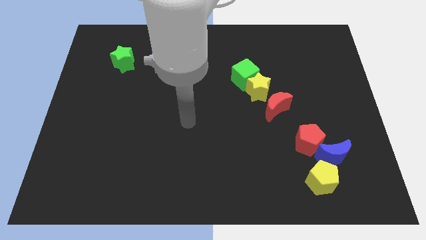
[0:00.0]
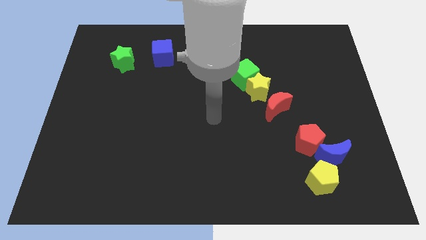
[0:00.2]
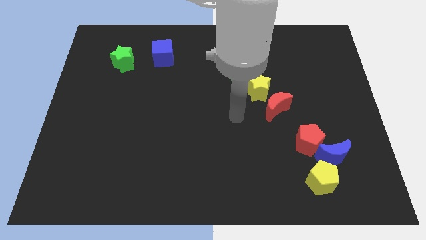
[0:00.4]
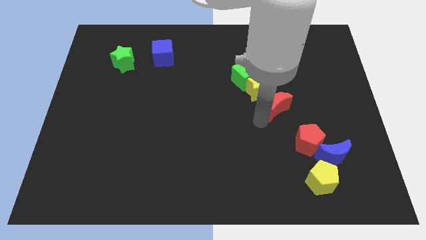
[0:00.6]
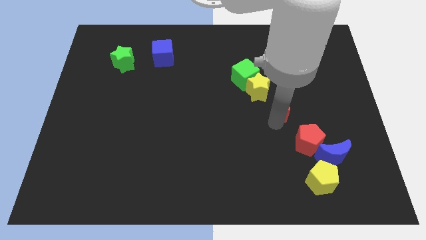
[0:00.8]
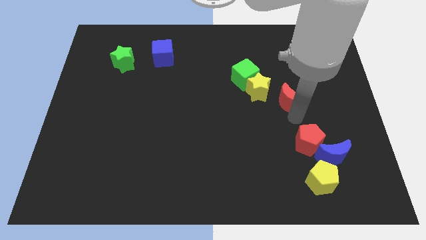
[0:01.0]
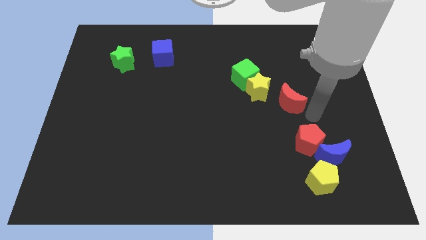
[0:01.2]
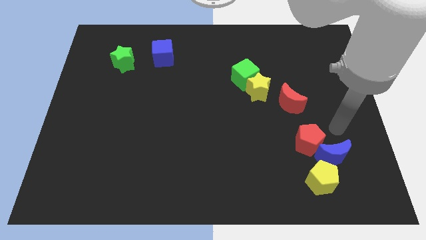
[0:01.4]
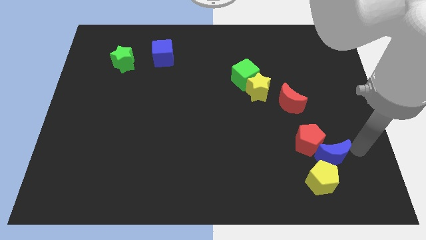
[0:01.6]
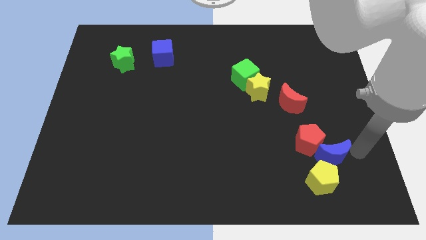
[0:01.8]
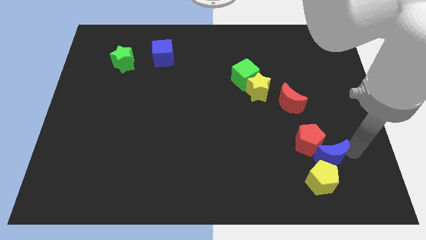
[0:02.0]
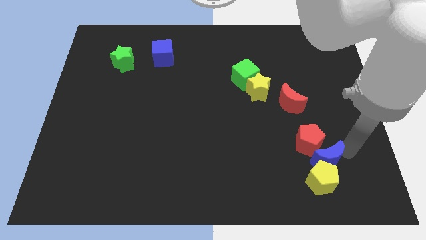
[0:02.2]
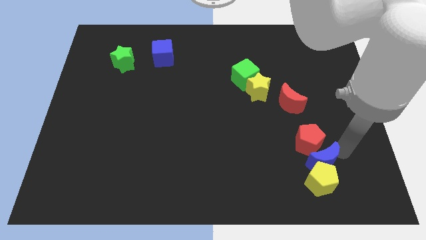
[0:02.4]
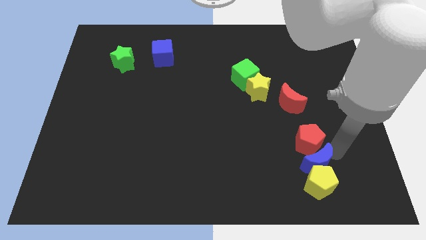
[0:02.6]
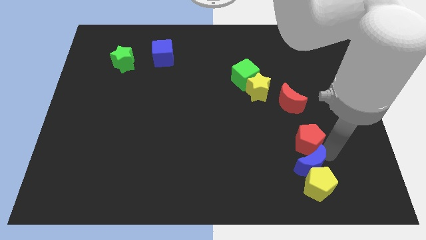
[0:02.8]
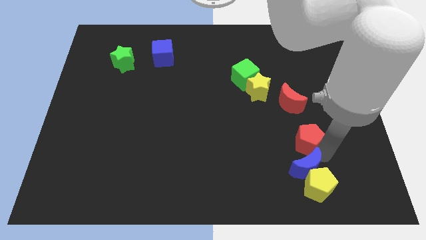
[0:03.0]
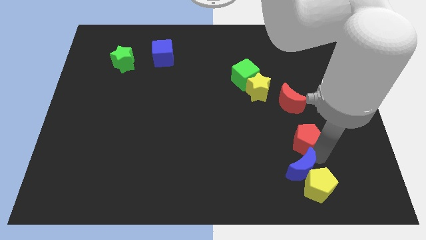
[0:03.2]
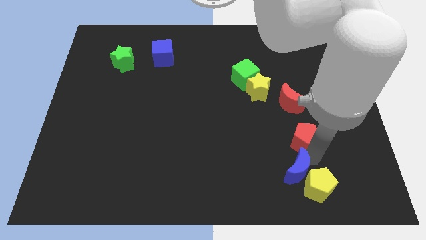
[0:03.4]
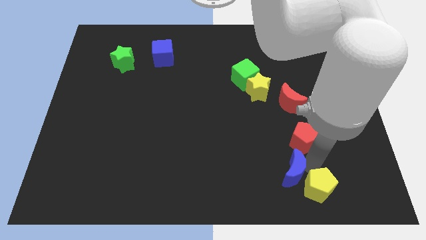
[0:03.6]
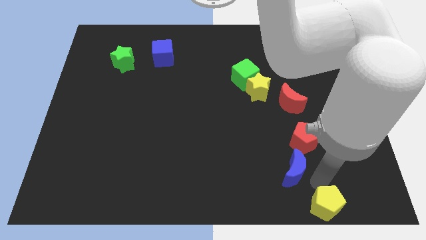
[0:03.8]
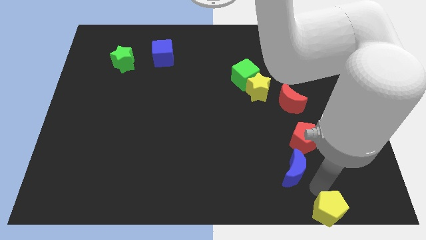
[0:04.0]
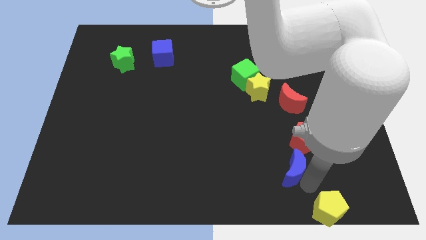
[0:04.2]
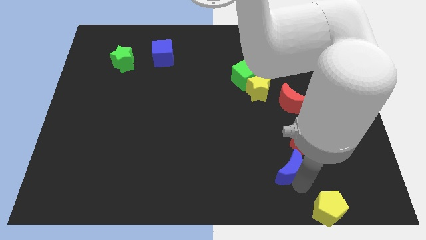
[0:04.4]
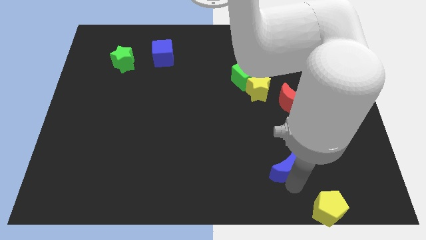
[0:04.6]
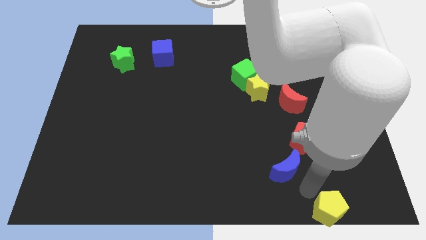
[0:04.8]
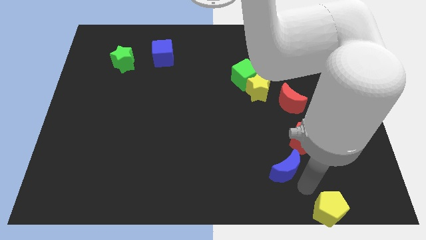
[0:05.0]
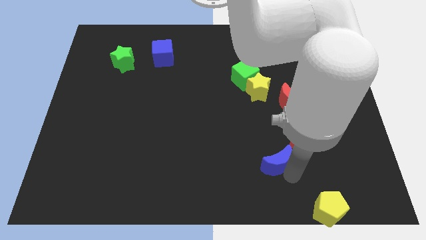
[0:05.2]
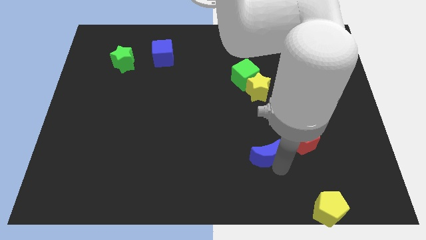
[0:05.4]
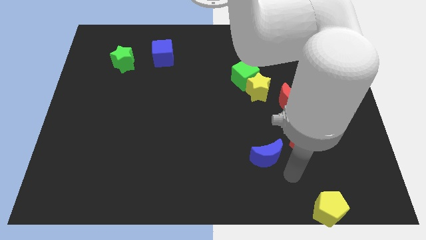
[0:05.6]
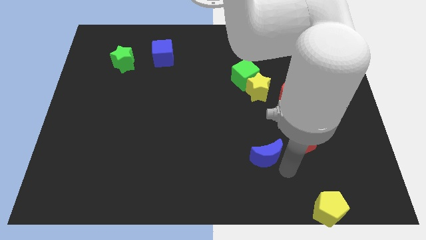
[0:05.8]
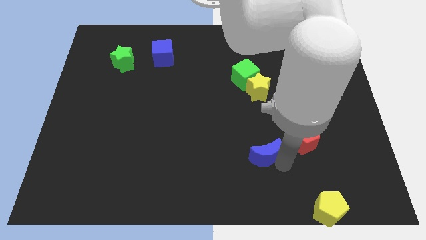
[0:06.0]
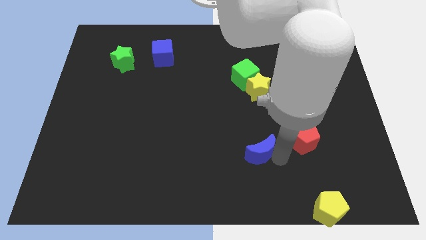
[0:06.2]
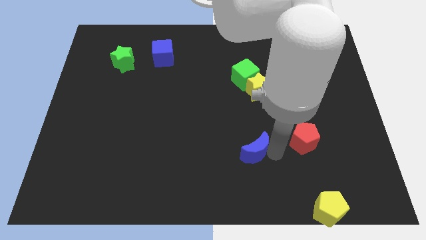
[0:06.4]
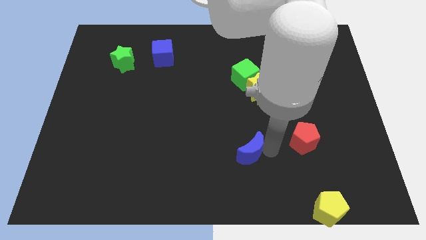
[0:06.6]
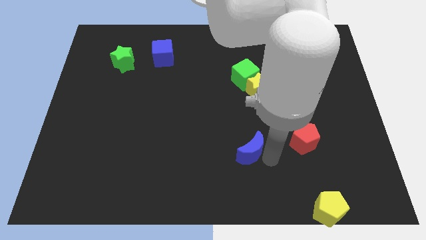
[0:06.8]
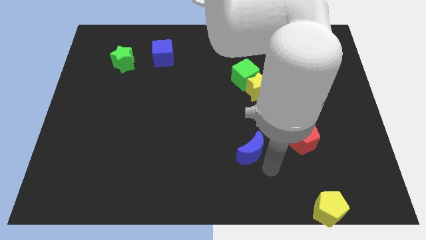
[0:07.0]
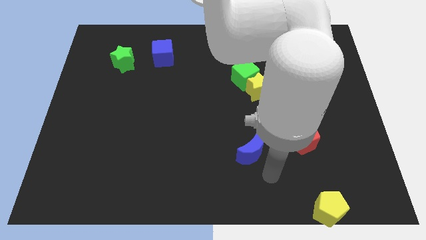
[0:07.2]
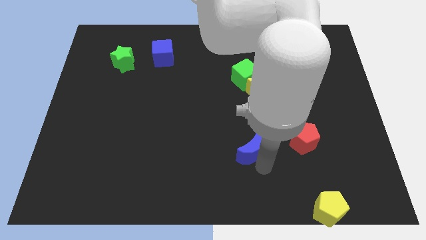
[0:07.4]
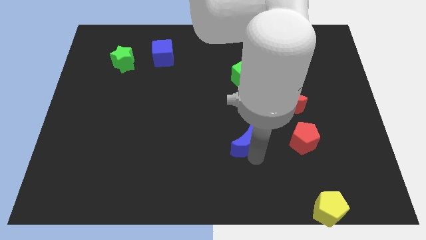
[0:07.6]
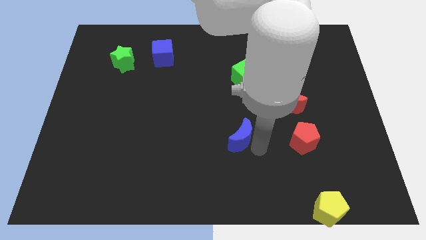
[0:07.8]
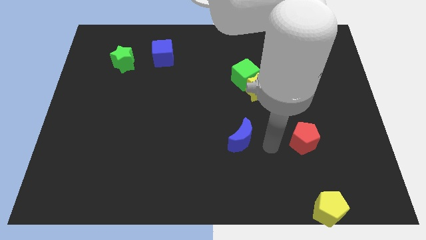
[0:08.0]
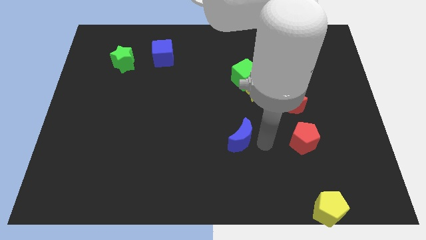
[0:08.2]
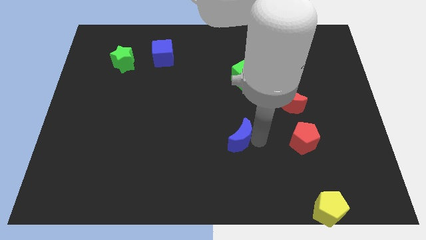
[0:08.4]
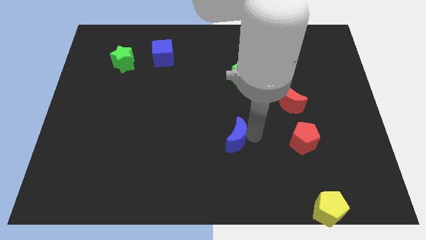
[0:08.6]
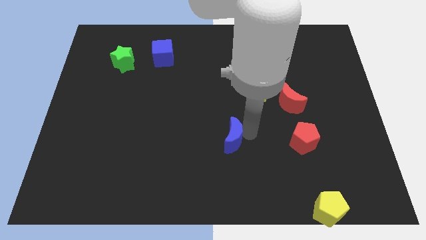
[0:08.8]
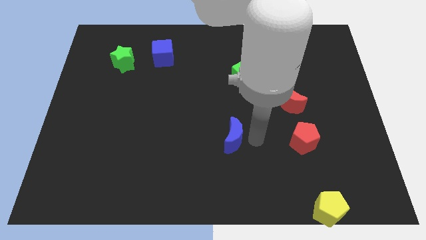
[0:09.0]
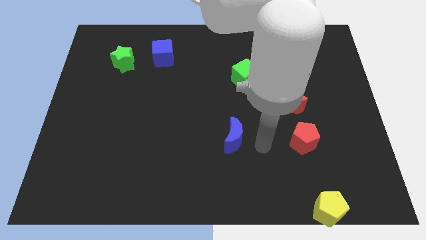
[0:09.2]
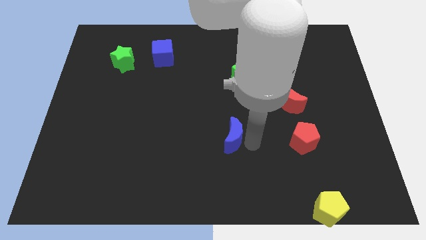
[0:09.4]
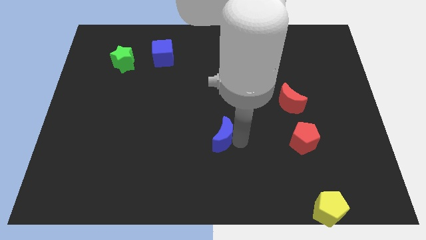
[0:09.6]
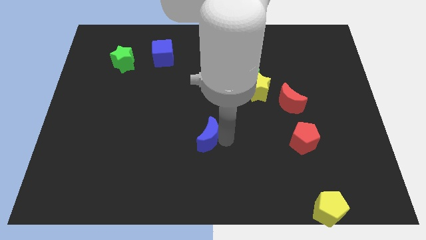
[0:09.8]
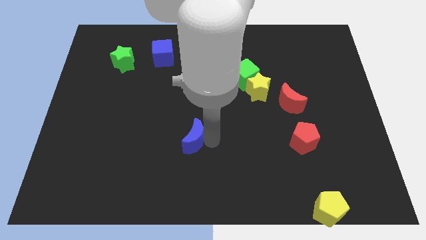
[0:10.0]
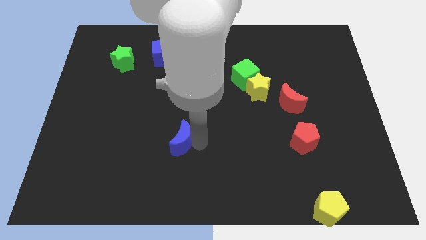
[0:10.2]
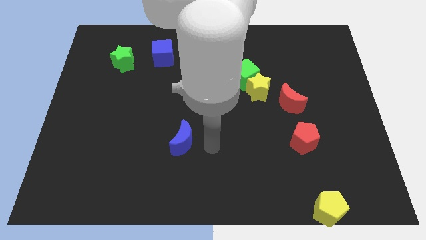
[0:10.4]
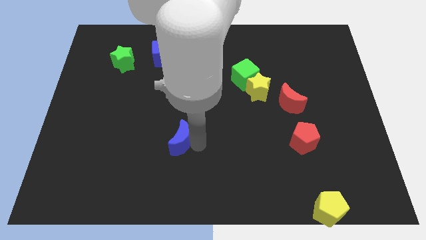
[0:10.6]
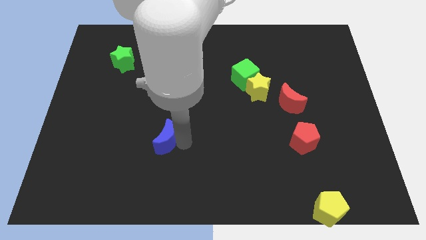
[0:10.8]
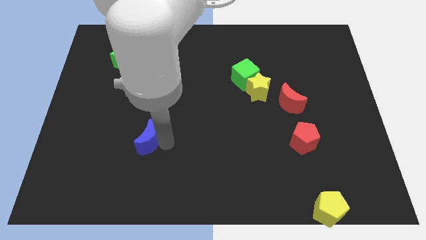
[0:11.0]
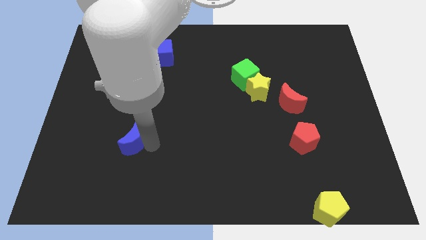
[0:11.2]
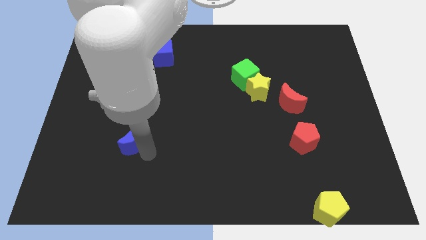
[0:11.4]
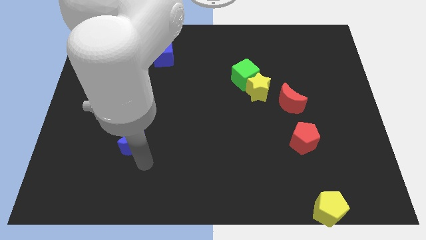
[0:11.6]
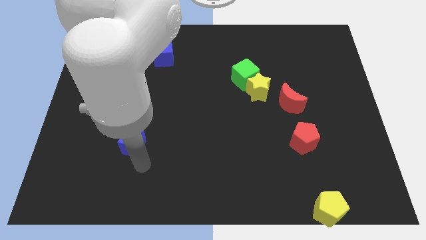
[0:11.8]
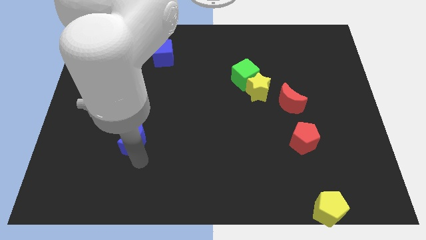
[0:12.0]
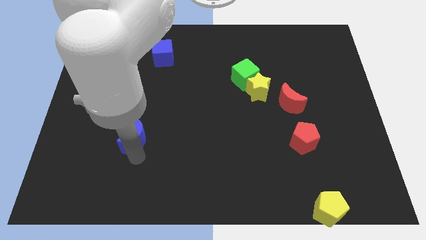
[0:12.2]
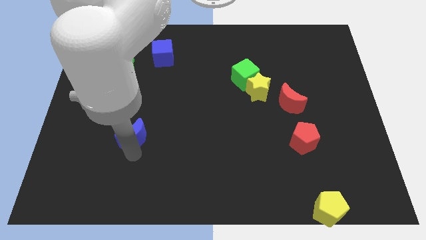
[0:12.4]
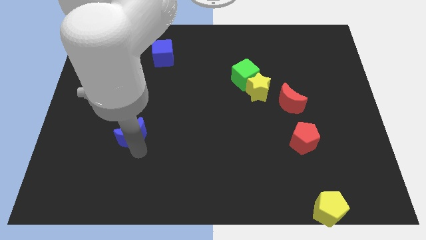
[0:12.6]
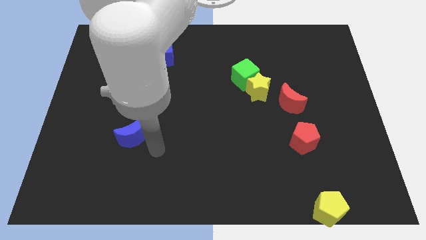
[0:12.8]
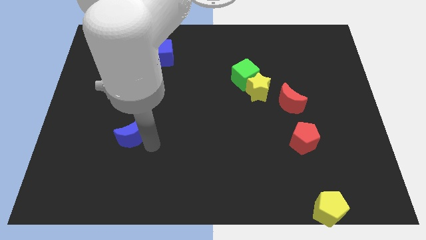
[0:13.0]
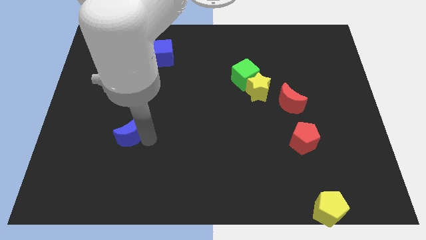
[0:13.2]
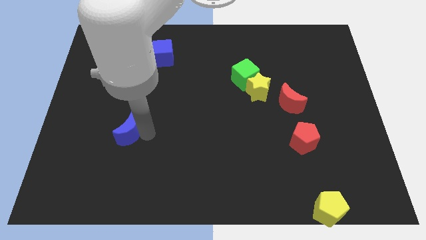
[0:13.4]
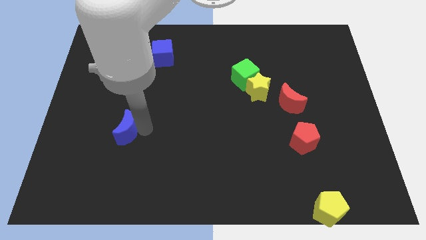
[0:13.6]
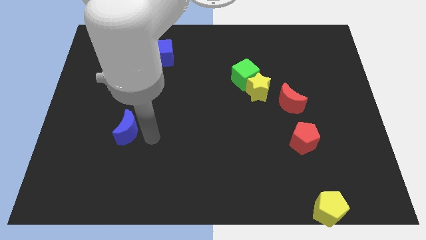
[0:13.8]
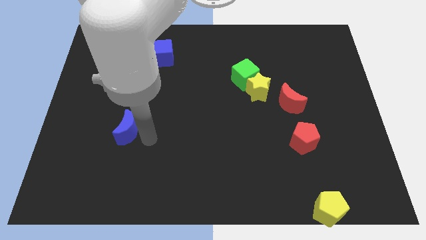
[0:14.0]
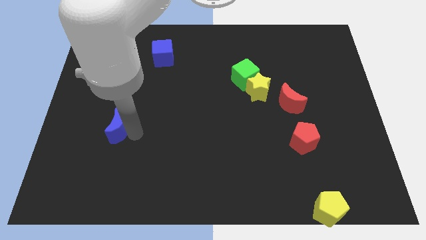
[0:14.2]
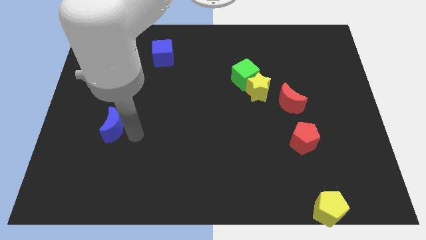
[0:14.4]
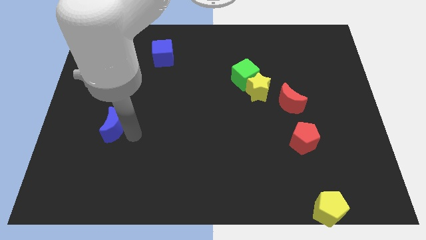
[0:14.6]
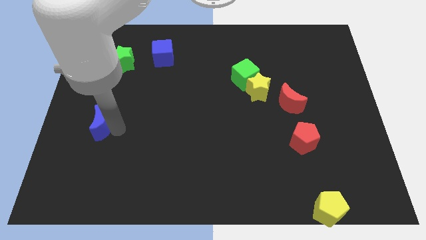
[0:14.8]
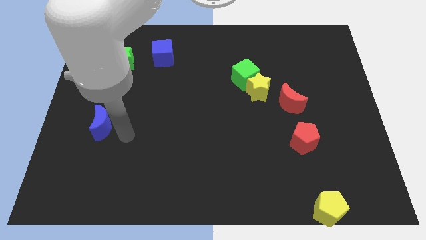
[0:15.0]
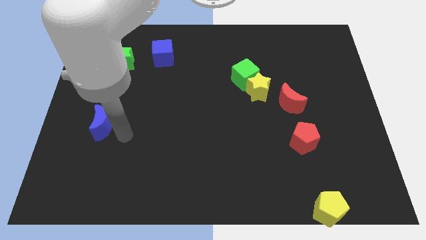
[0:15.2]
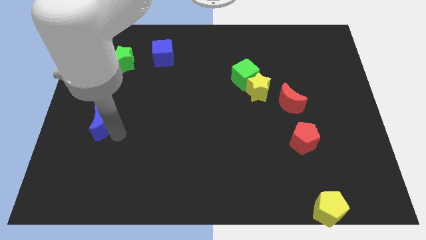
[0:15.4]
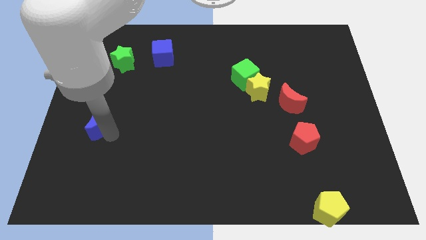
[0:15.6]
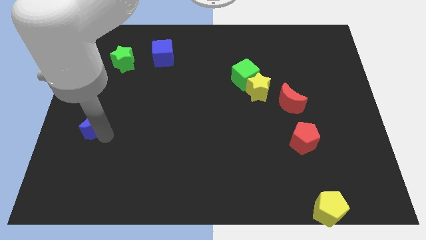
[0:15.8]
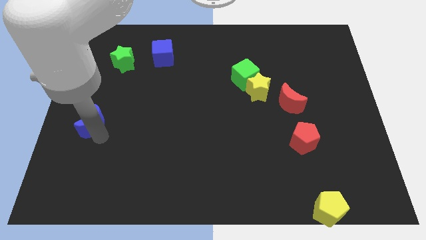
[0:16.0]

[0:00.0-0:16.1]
slide the blue moon to the left side
